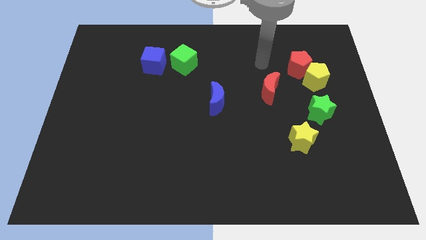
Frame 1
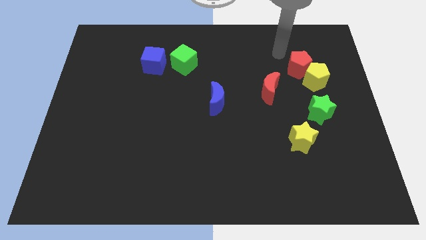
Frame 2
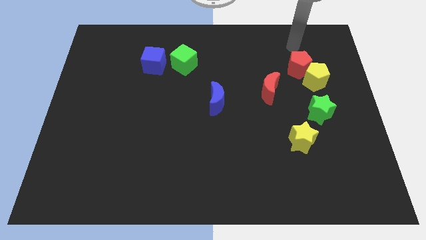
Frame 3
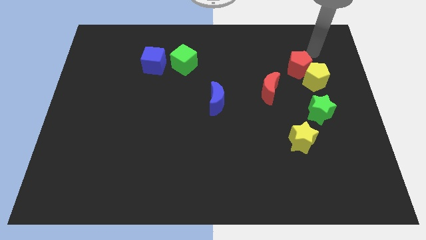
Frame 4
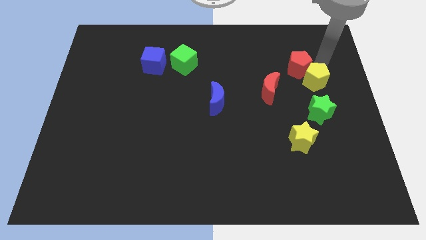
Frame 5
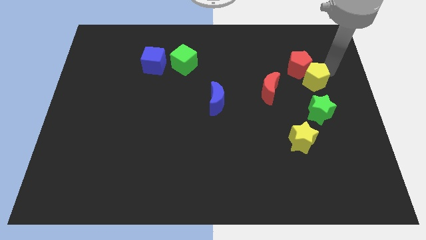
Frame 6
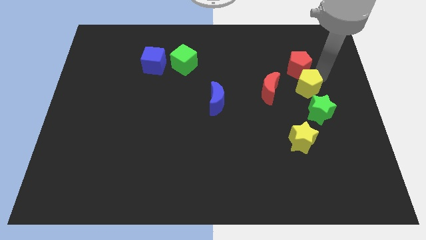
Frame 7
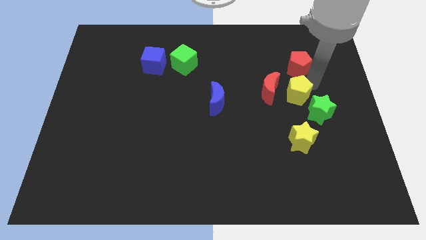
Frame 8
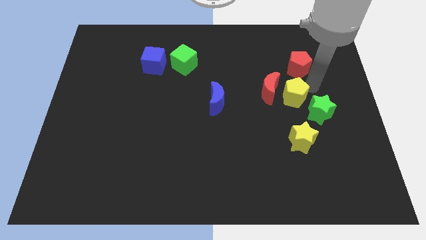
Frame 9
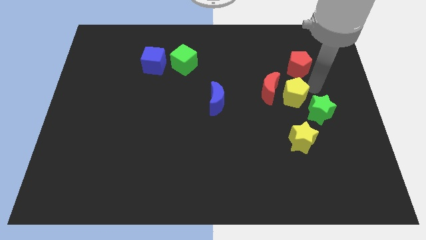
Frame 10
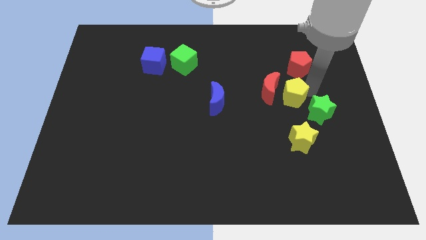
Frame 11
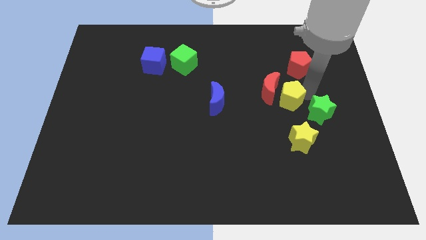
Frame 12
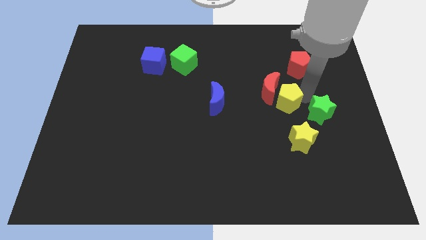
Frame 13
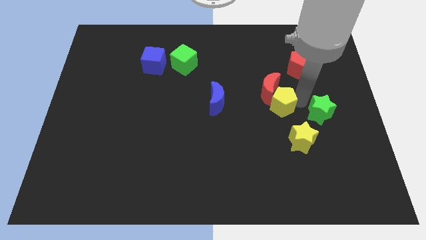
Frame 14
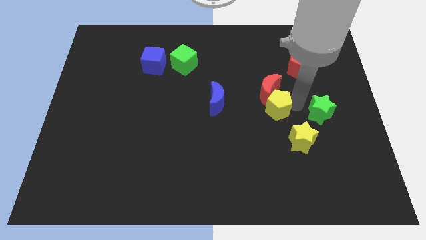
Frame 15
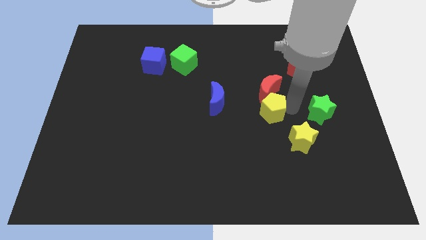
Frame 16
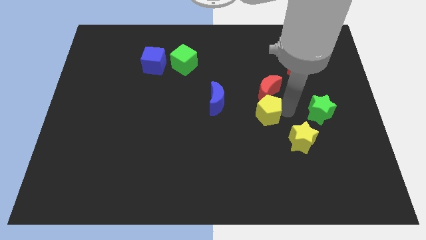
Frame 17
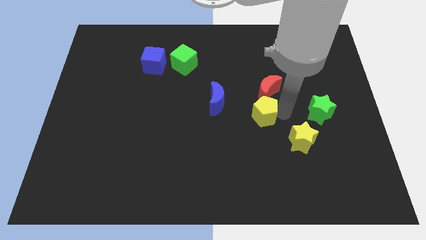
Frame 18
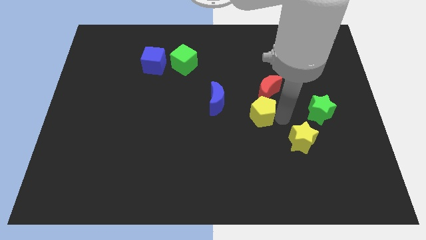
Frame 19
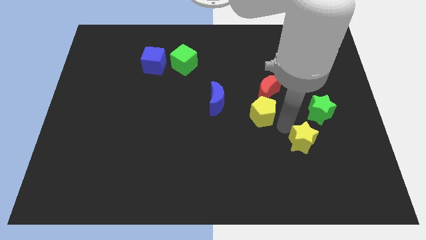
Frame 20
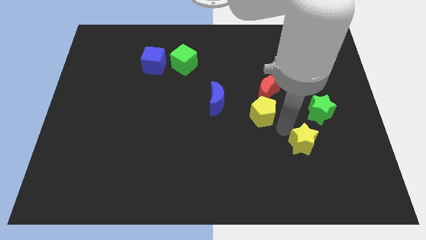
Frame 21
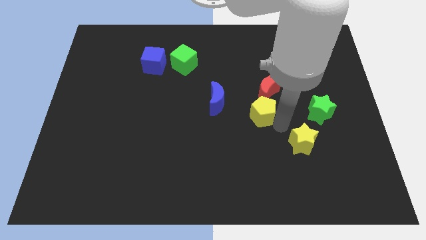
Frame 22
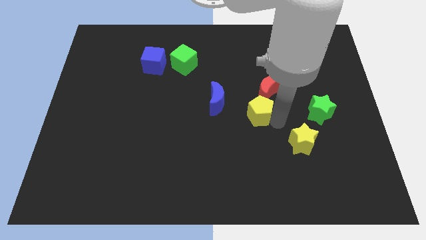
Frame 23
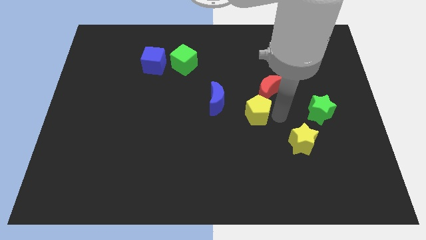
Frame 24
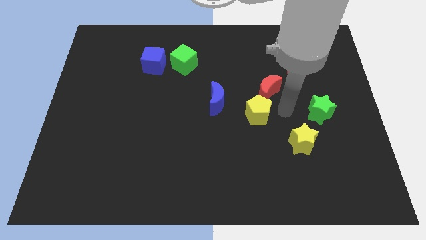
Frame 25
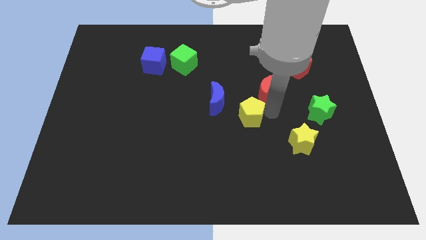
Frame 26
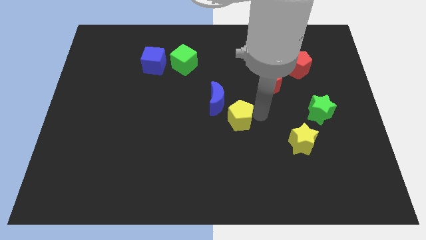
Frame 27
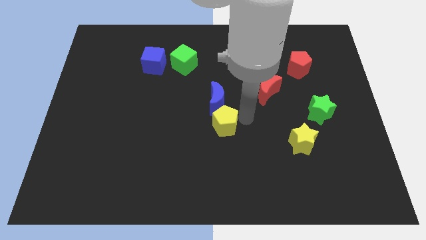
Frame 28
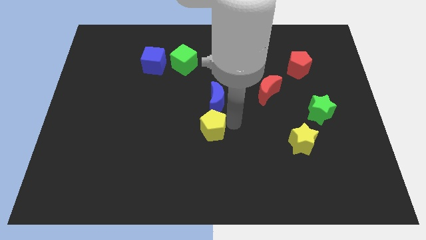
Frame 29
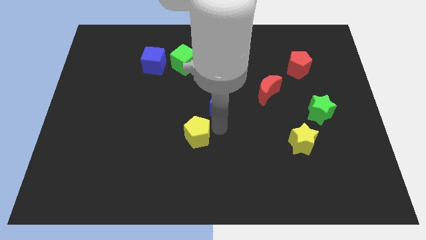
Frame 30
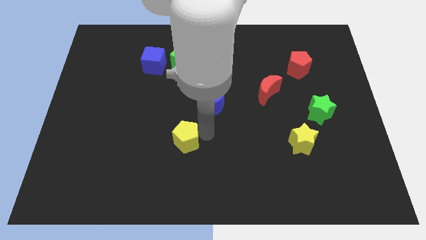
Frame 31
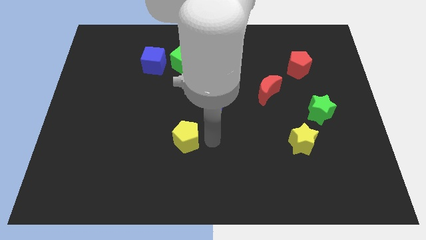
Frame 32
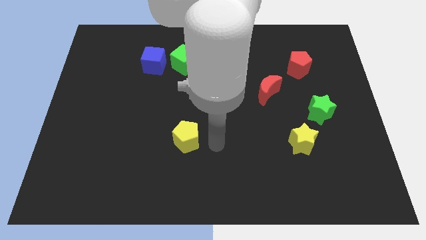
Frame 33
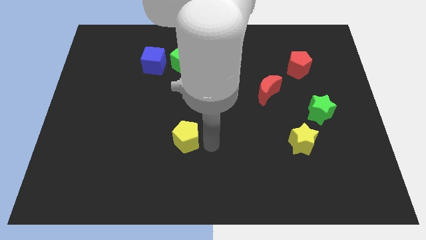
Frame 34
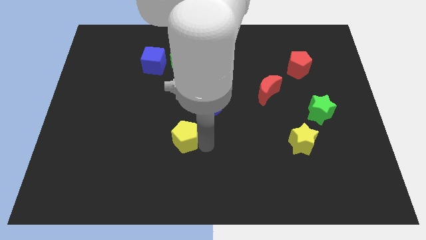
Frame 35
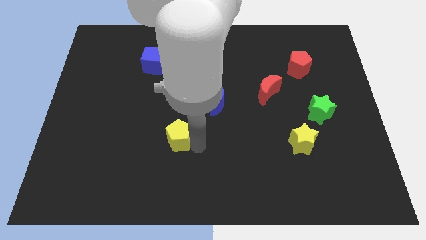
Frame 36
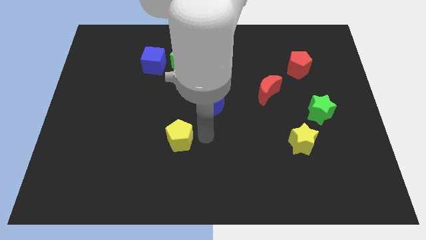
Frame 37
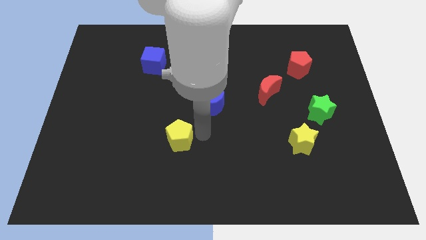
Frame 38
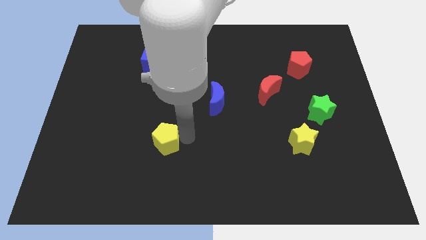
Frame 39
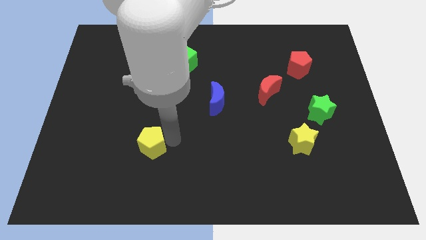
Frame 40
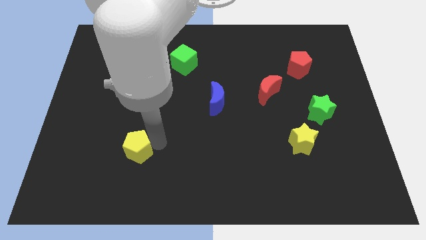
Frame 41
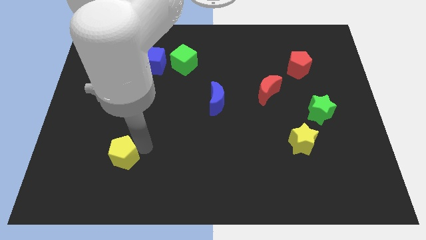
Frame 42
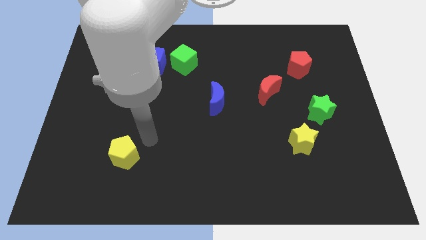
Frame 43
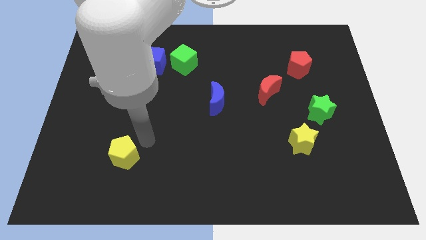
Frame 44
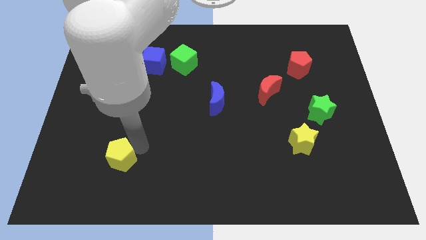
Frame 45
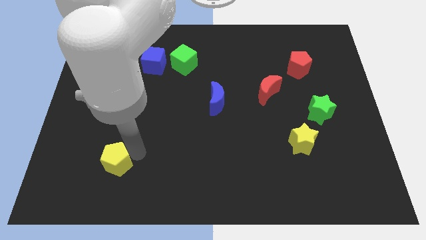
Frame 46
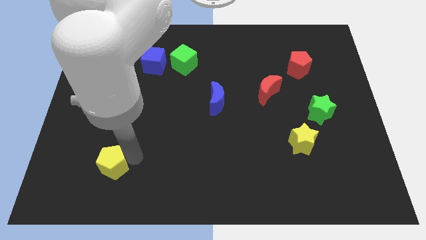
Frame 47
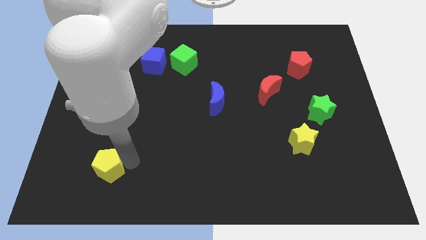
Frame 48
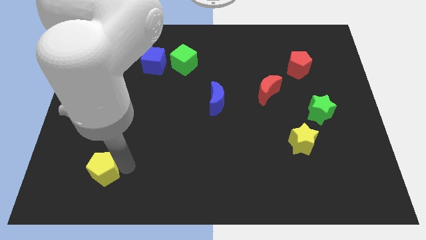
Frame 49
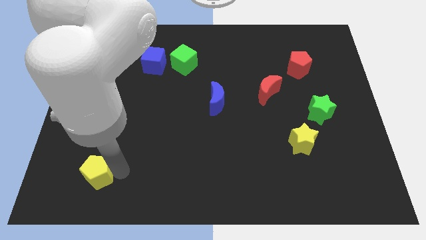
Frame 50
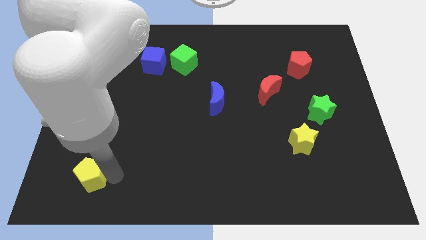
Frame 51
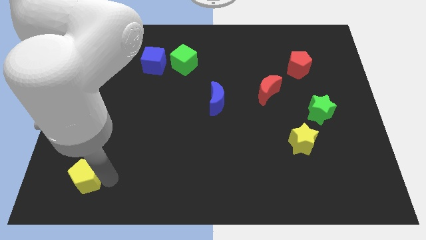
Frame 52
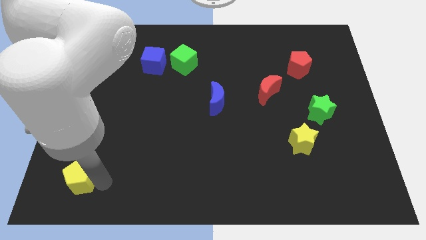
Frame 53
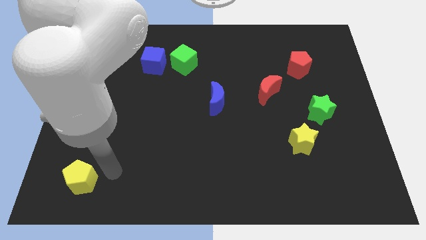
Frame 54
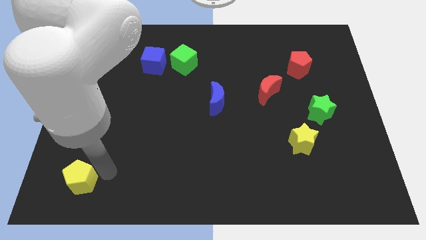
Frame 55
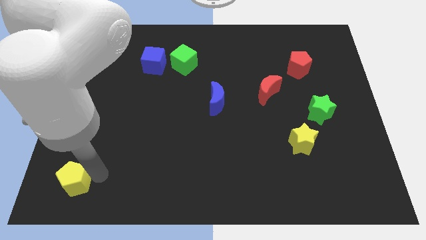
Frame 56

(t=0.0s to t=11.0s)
slide the yellow pentagon to the bottom left corner

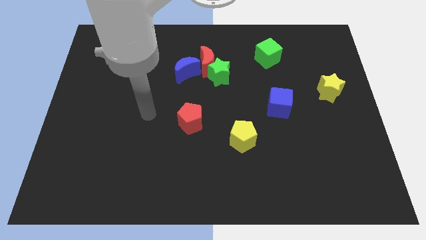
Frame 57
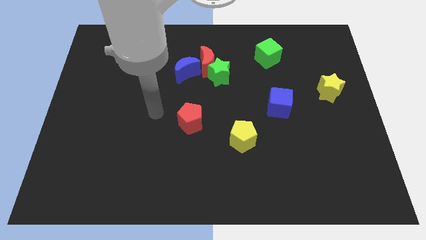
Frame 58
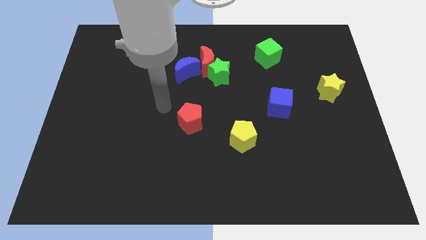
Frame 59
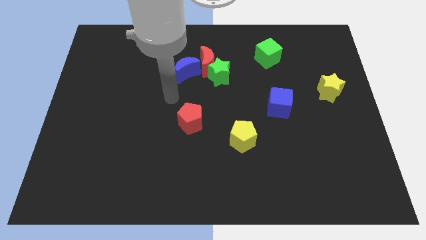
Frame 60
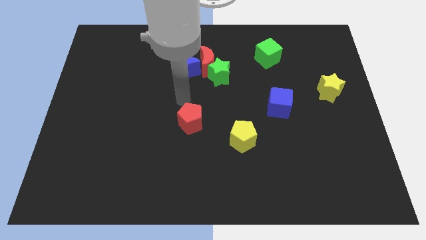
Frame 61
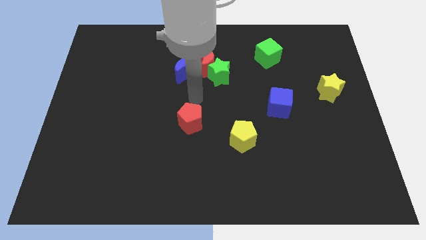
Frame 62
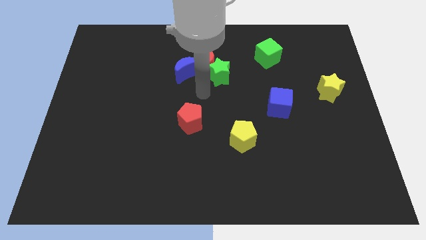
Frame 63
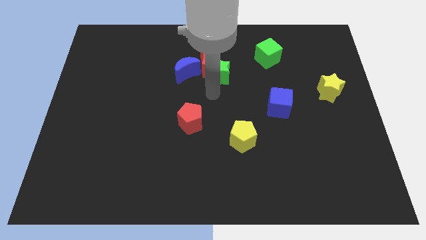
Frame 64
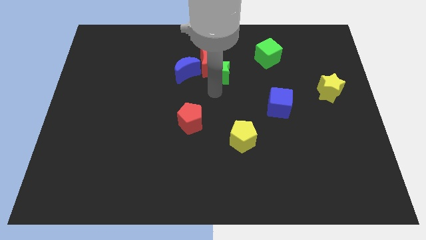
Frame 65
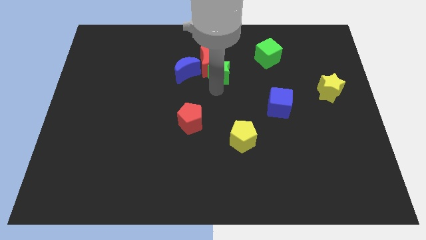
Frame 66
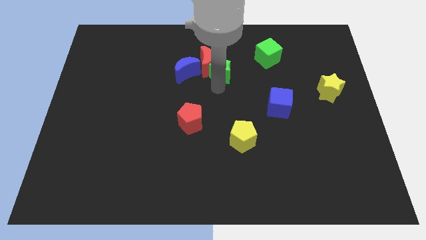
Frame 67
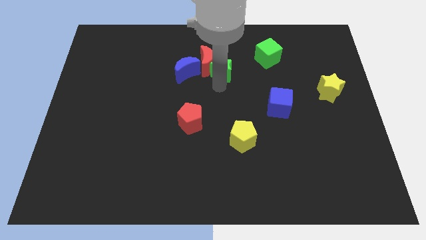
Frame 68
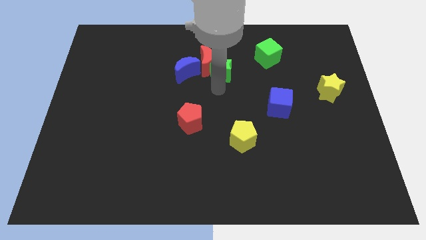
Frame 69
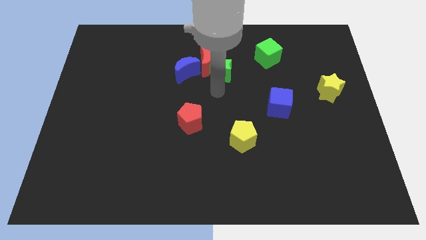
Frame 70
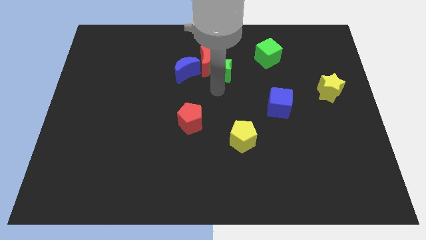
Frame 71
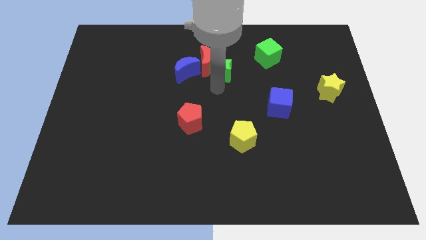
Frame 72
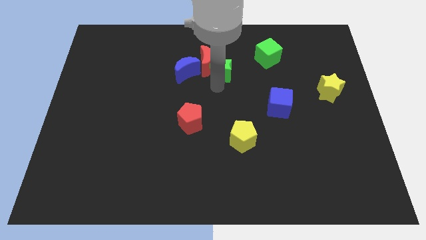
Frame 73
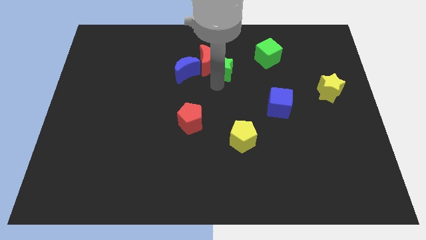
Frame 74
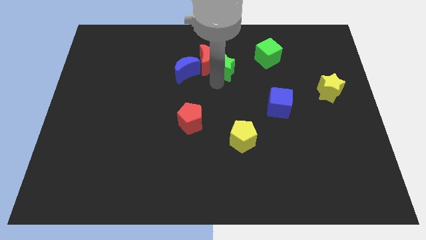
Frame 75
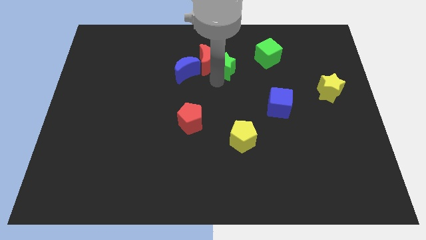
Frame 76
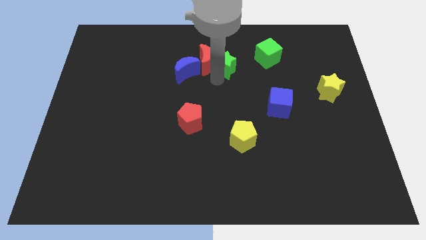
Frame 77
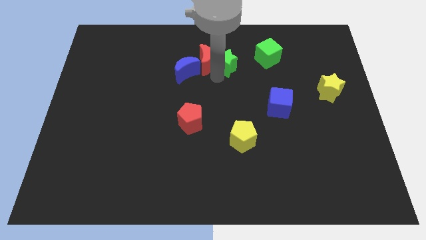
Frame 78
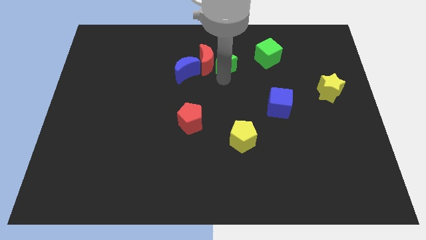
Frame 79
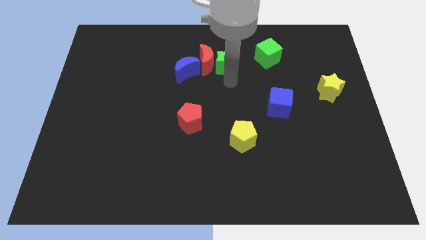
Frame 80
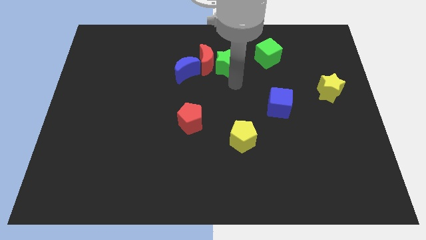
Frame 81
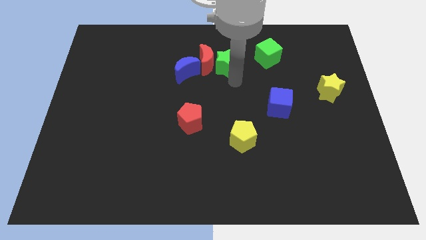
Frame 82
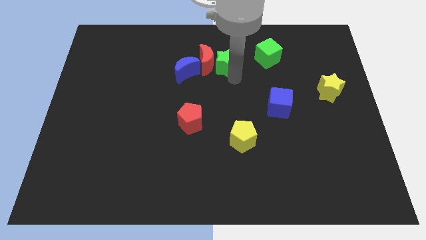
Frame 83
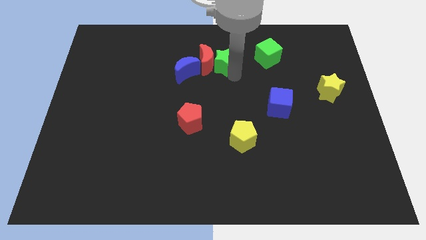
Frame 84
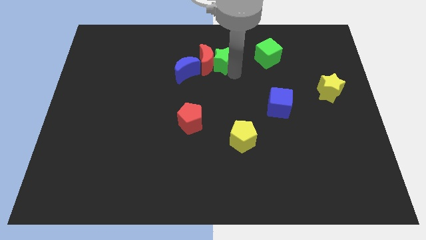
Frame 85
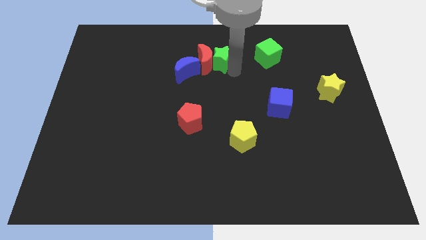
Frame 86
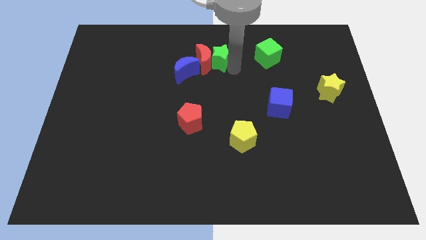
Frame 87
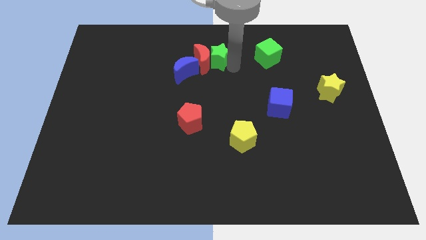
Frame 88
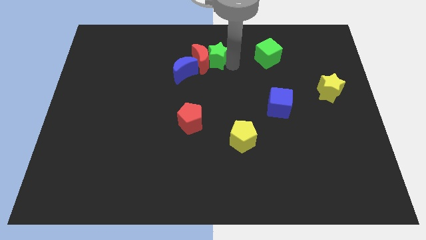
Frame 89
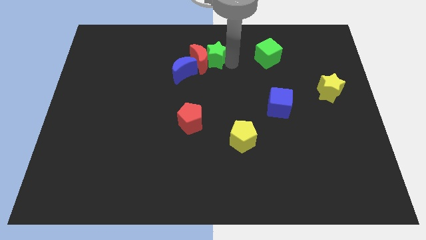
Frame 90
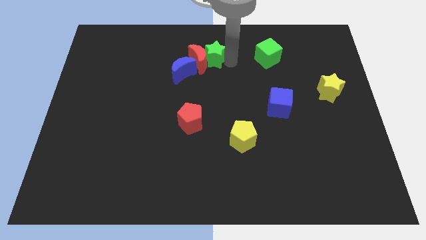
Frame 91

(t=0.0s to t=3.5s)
move the green star to the top
